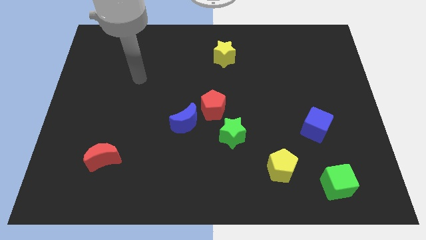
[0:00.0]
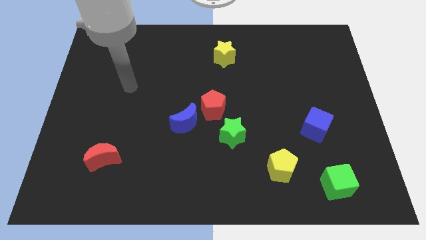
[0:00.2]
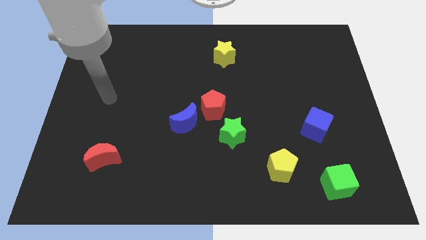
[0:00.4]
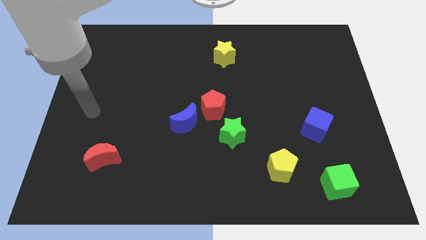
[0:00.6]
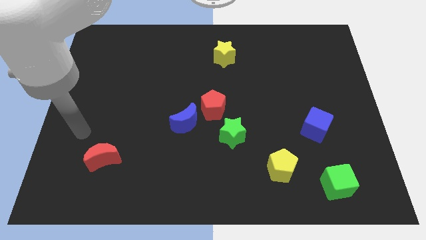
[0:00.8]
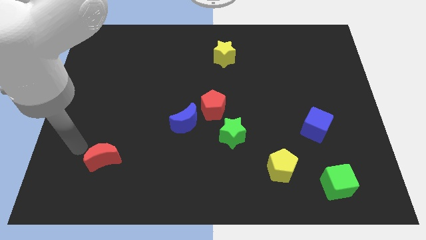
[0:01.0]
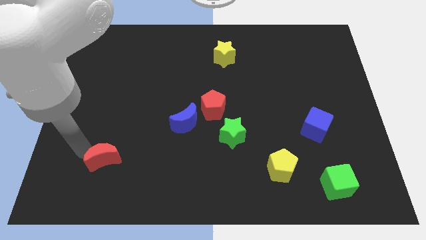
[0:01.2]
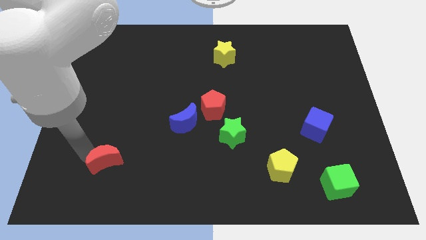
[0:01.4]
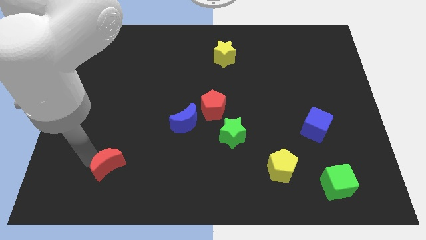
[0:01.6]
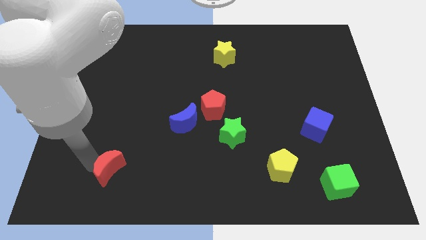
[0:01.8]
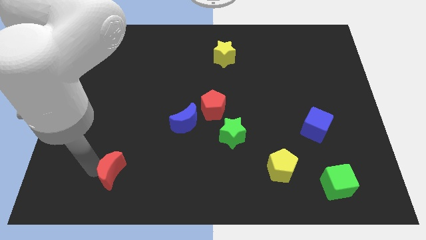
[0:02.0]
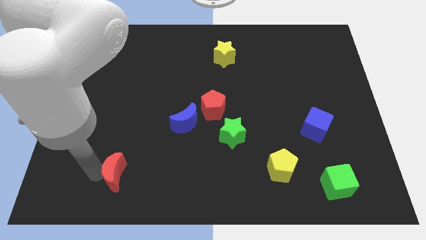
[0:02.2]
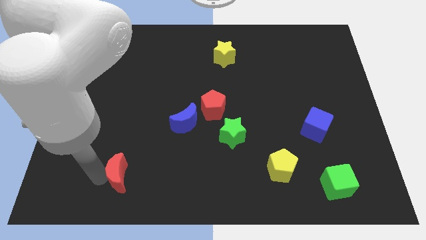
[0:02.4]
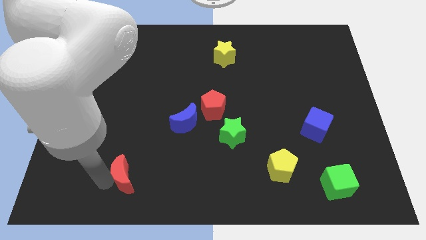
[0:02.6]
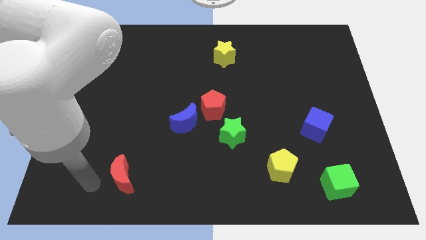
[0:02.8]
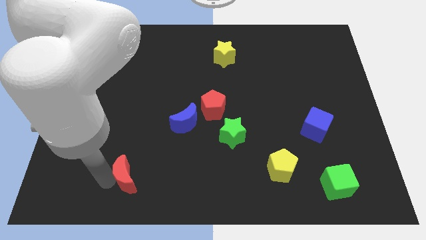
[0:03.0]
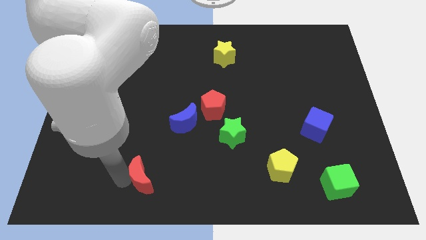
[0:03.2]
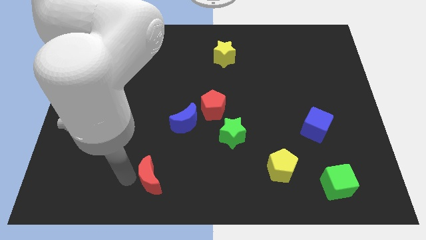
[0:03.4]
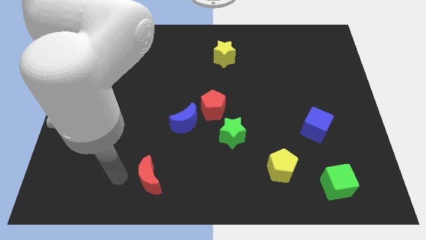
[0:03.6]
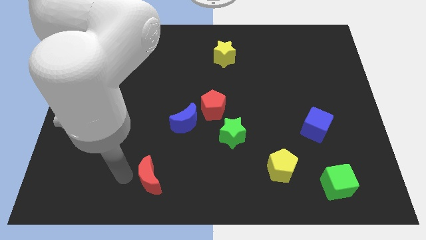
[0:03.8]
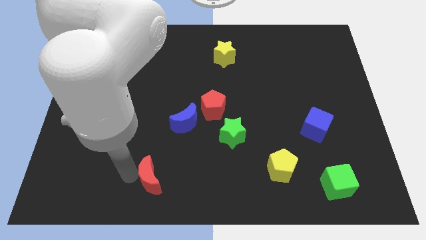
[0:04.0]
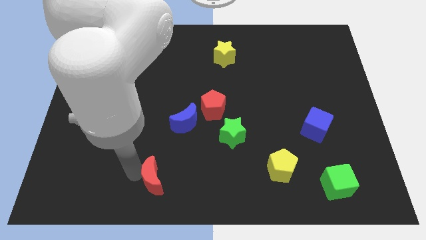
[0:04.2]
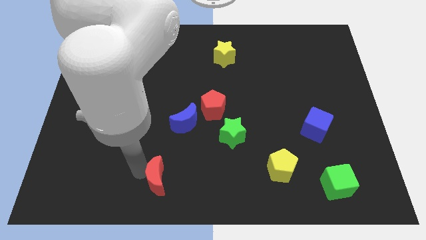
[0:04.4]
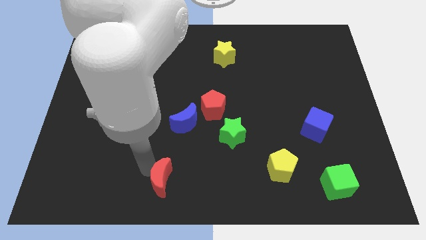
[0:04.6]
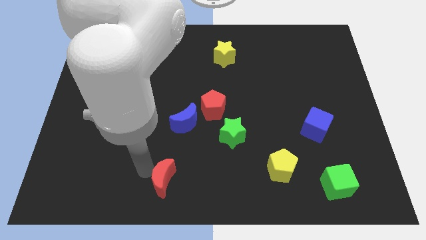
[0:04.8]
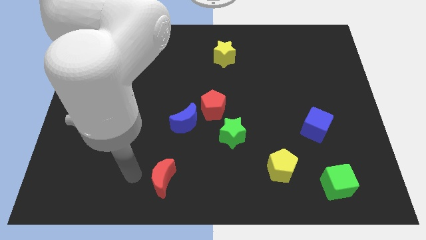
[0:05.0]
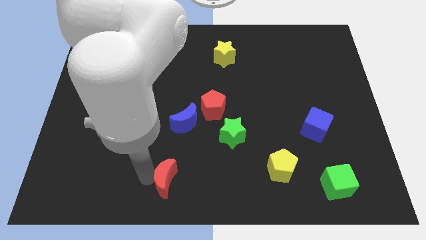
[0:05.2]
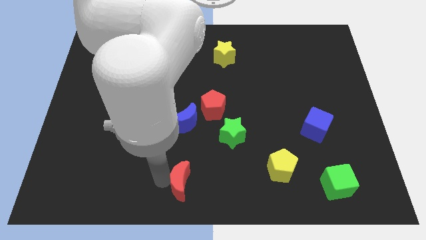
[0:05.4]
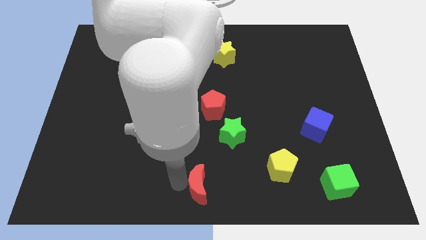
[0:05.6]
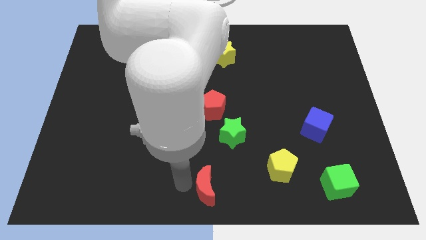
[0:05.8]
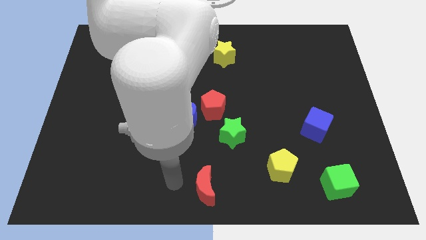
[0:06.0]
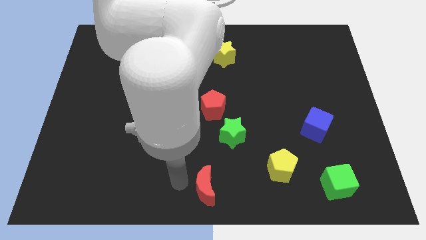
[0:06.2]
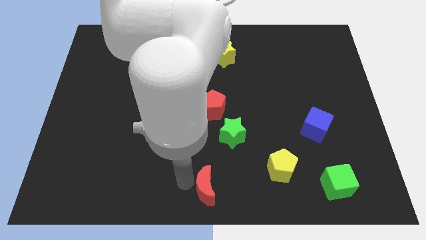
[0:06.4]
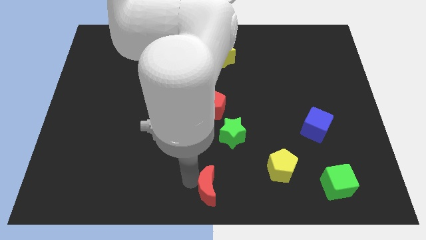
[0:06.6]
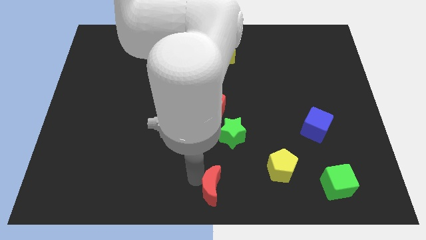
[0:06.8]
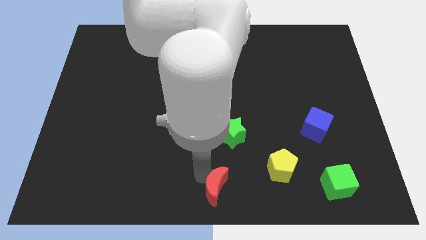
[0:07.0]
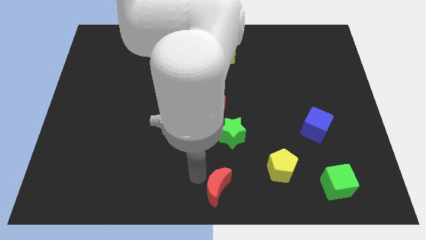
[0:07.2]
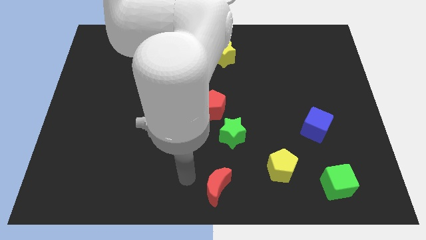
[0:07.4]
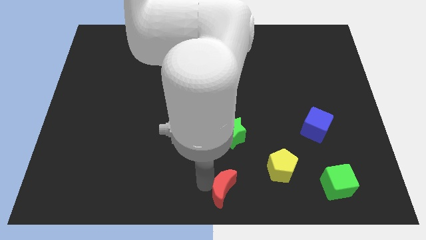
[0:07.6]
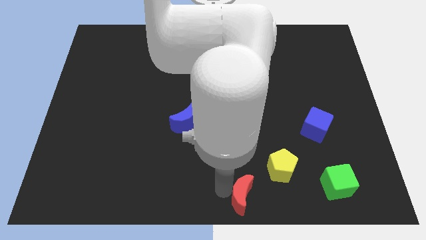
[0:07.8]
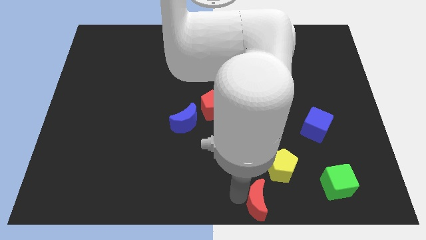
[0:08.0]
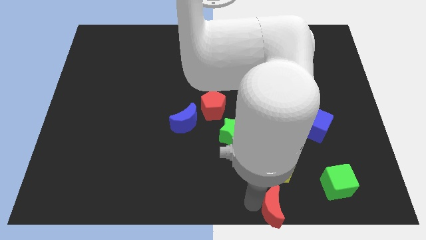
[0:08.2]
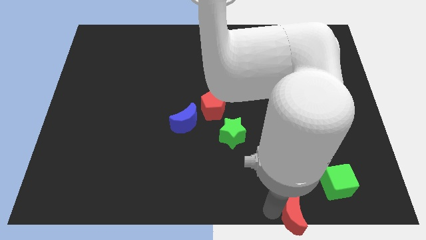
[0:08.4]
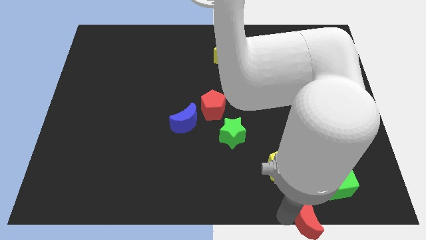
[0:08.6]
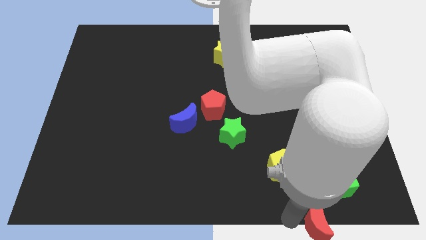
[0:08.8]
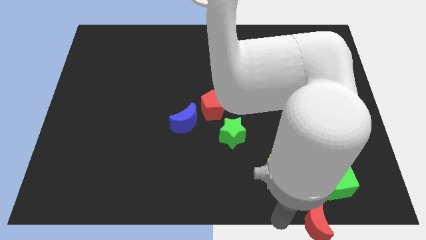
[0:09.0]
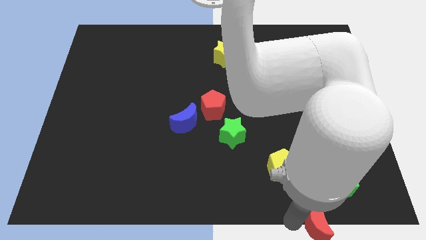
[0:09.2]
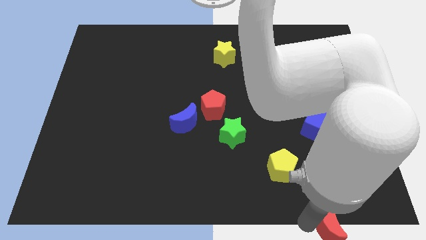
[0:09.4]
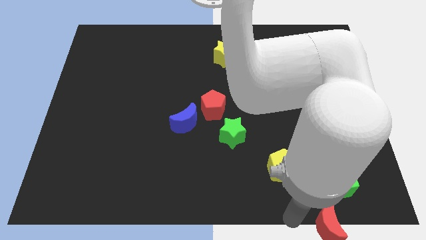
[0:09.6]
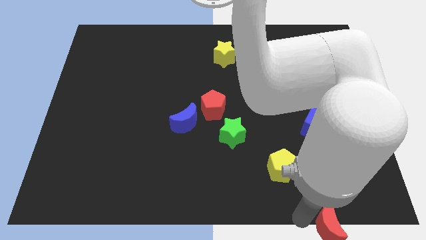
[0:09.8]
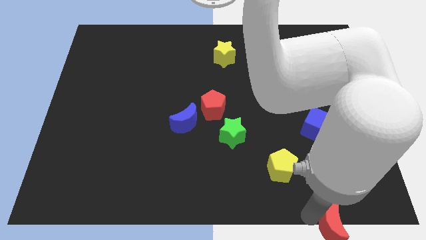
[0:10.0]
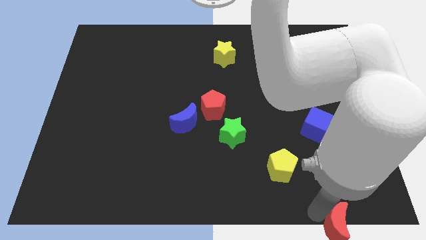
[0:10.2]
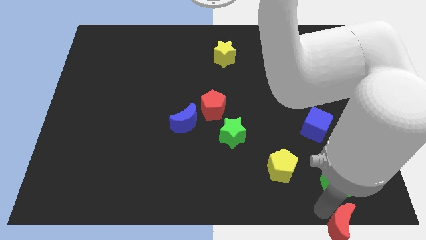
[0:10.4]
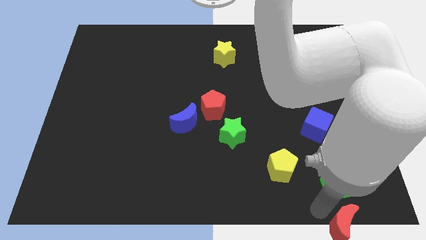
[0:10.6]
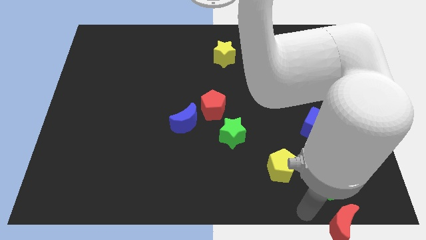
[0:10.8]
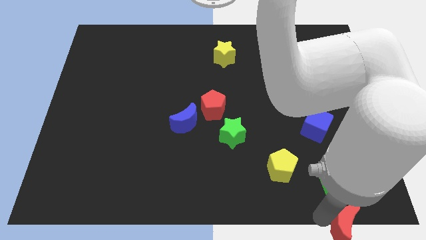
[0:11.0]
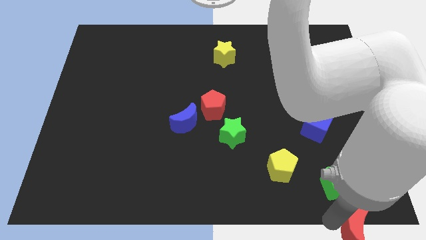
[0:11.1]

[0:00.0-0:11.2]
put the red moon to the bottom right corner

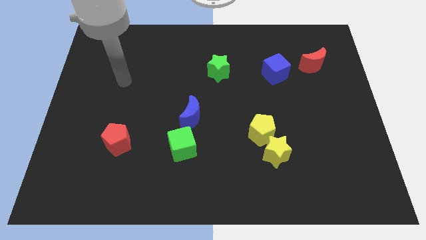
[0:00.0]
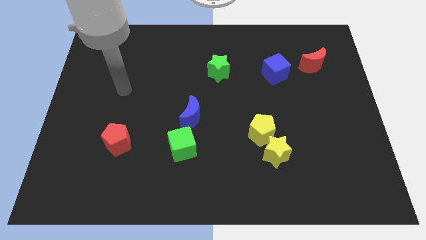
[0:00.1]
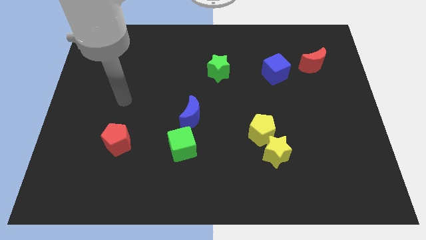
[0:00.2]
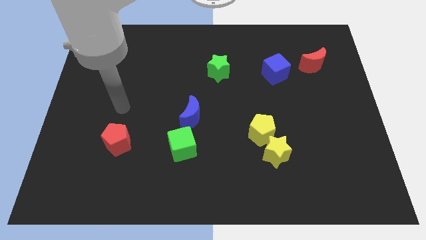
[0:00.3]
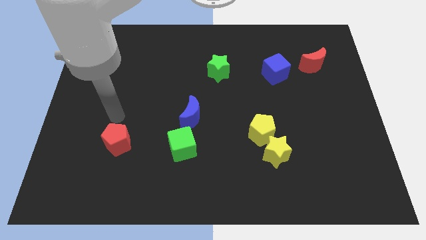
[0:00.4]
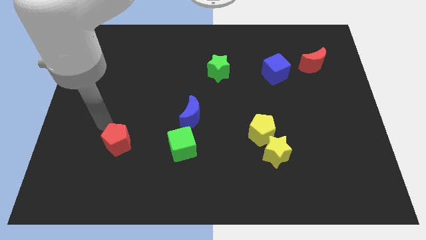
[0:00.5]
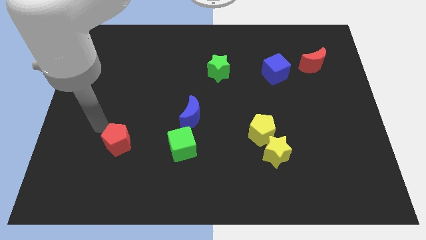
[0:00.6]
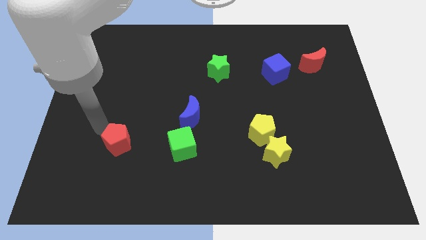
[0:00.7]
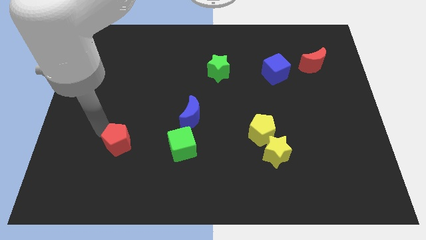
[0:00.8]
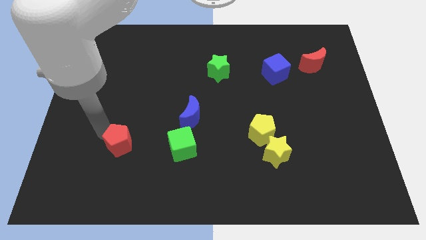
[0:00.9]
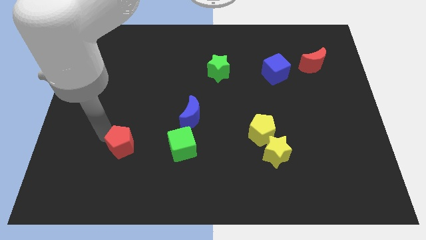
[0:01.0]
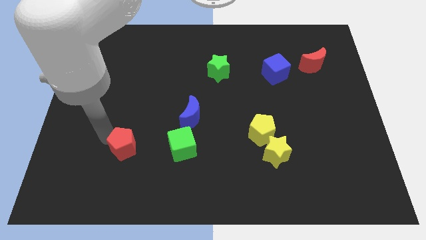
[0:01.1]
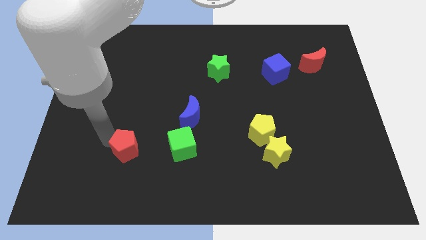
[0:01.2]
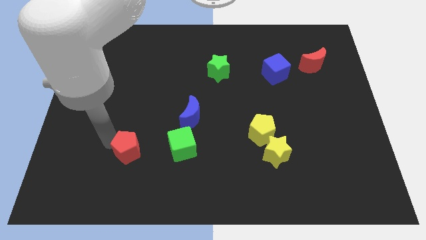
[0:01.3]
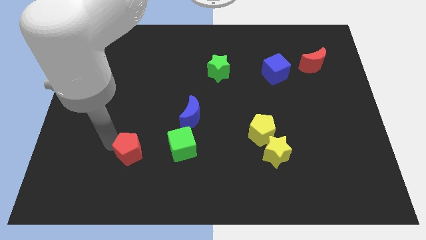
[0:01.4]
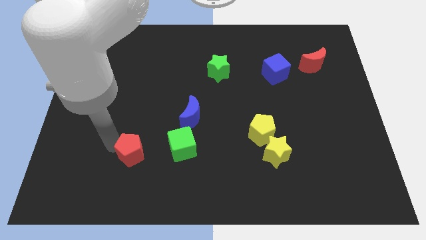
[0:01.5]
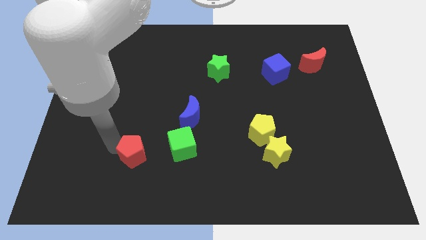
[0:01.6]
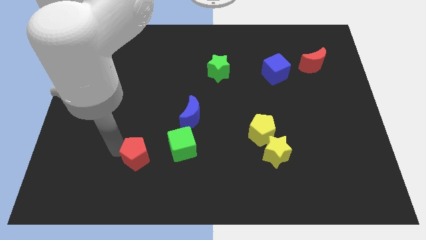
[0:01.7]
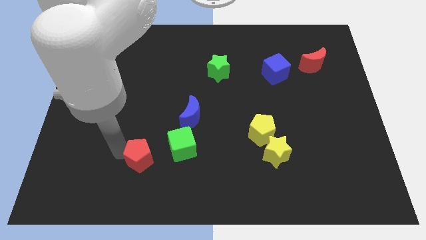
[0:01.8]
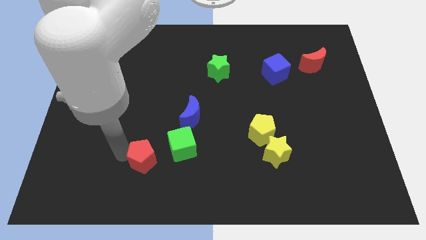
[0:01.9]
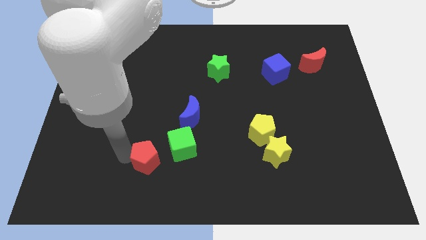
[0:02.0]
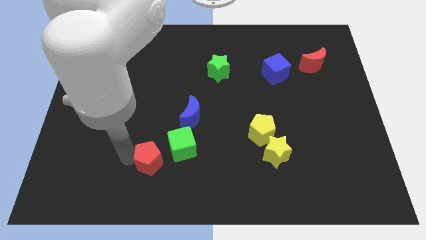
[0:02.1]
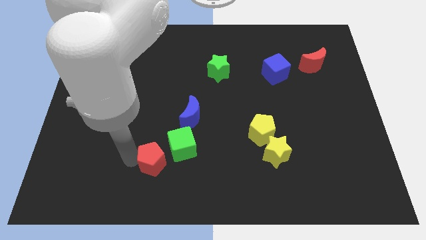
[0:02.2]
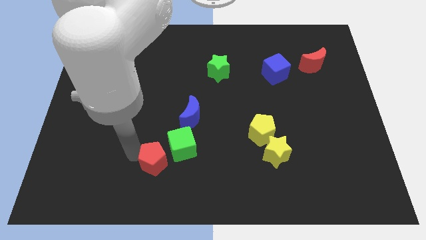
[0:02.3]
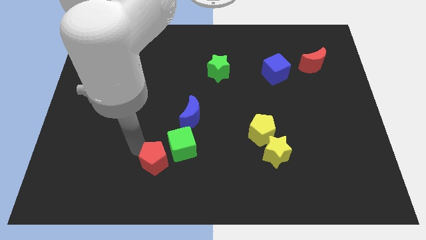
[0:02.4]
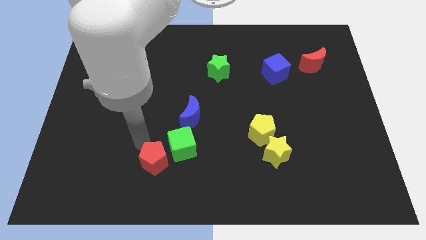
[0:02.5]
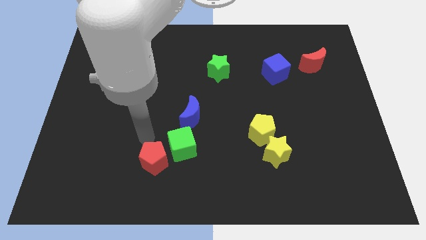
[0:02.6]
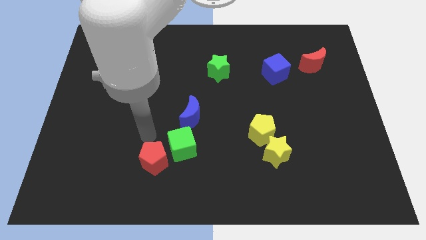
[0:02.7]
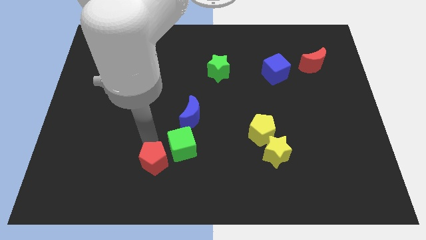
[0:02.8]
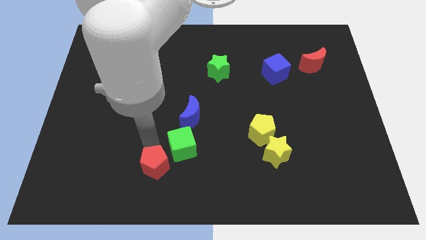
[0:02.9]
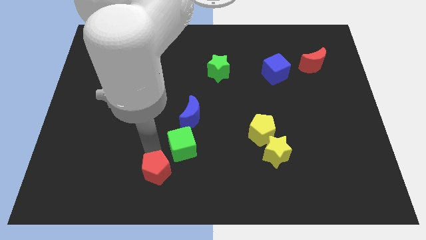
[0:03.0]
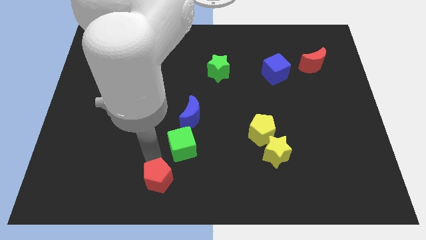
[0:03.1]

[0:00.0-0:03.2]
put the red pentagon to the bottom
